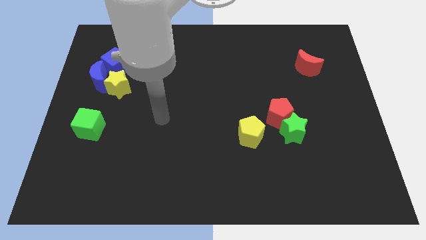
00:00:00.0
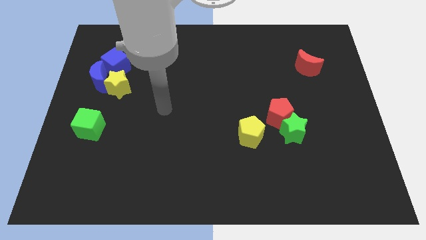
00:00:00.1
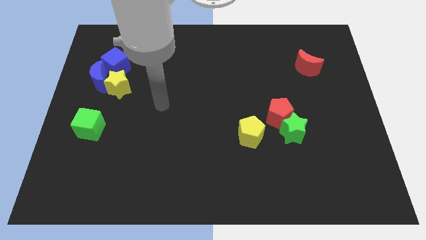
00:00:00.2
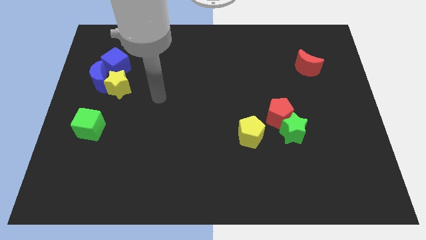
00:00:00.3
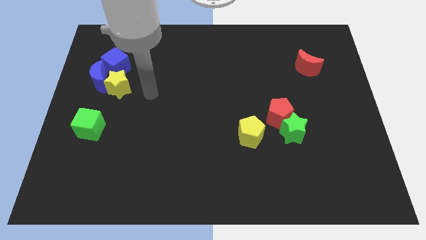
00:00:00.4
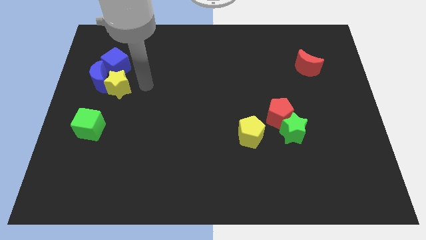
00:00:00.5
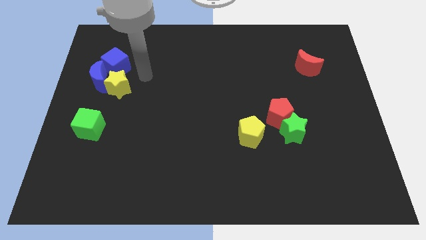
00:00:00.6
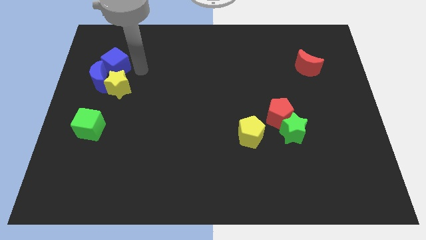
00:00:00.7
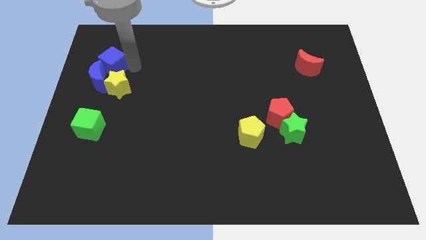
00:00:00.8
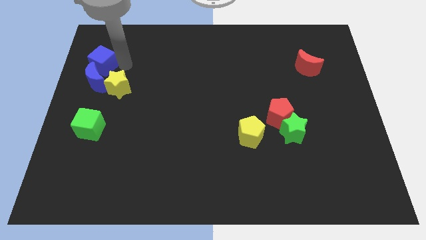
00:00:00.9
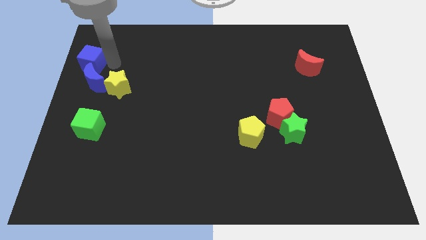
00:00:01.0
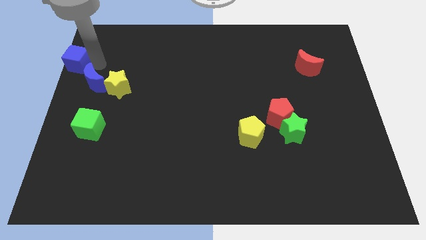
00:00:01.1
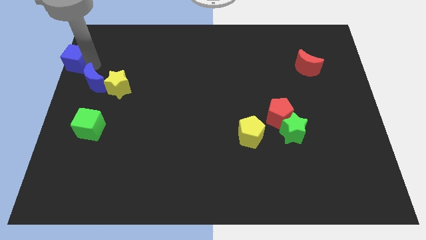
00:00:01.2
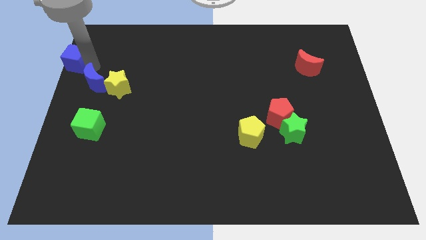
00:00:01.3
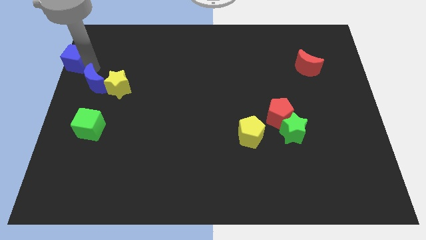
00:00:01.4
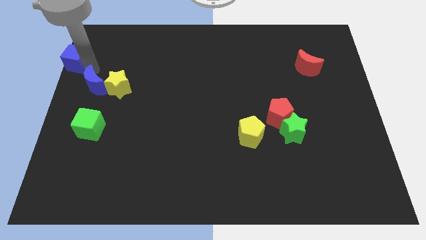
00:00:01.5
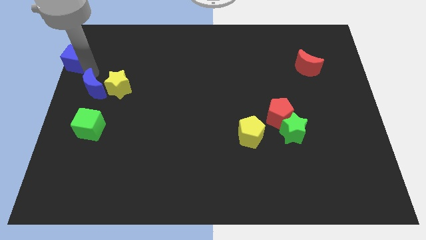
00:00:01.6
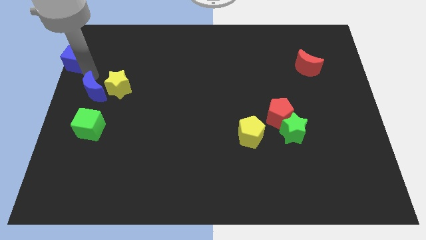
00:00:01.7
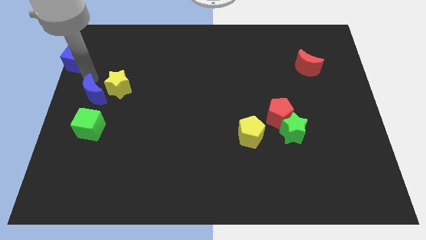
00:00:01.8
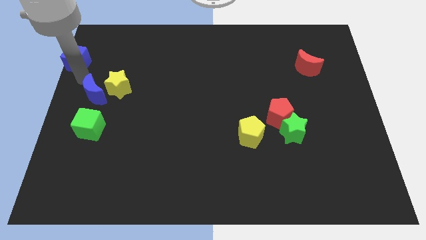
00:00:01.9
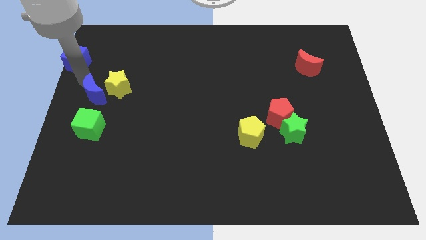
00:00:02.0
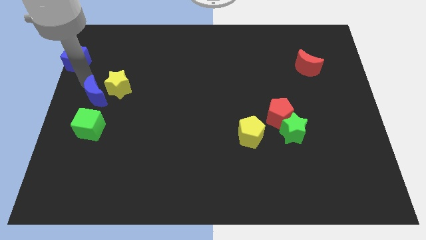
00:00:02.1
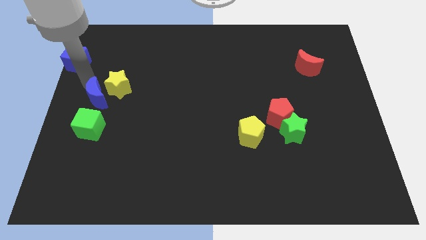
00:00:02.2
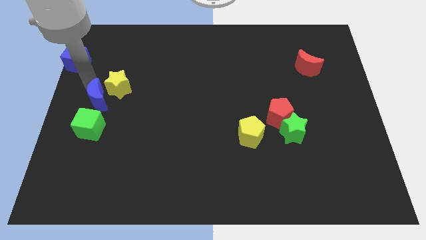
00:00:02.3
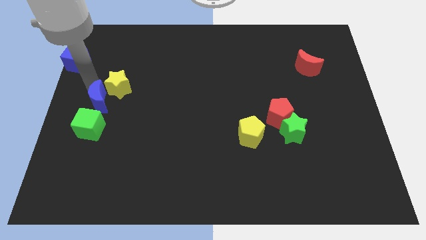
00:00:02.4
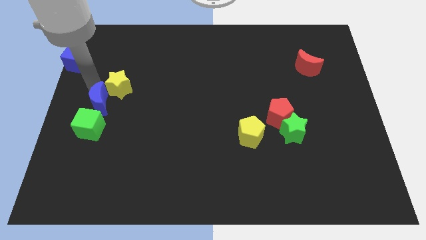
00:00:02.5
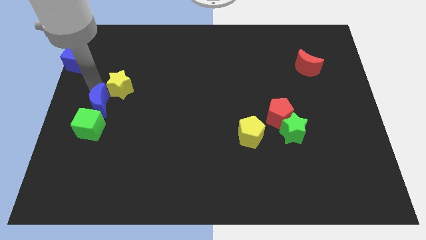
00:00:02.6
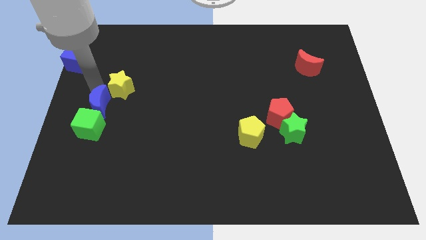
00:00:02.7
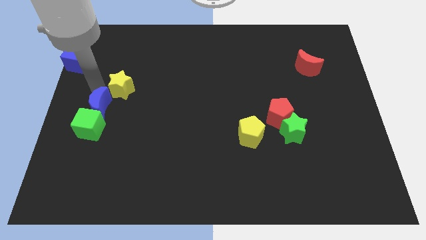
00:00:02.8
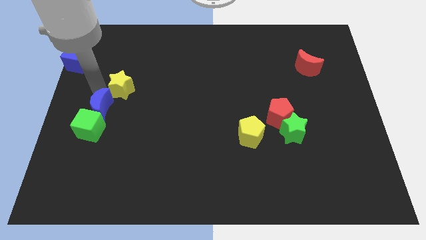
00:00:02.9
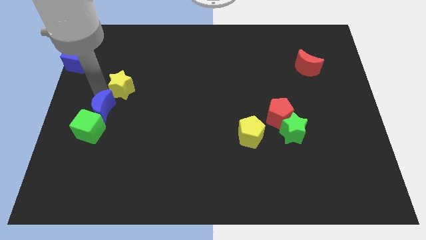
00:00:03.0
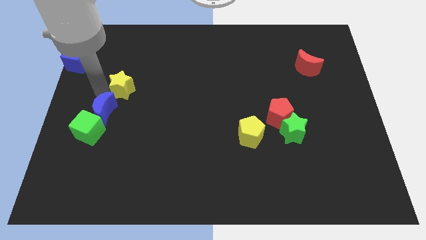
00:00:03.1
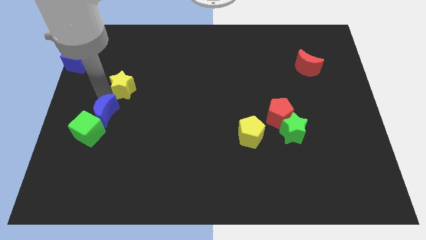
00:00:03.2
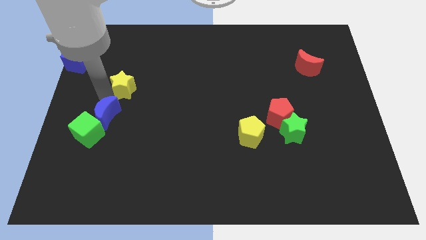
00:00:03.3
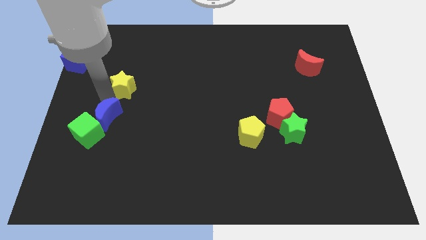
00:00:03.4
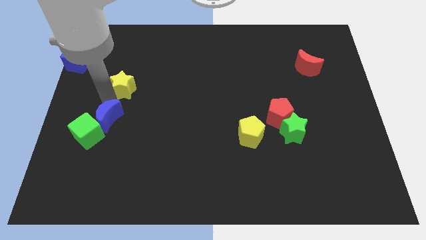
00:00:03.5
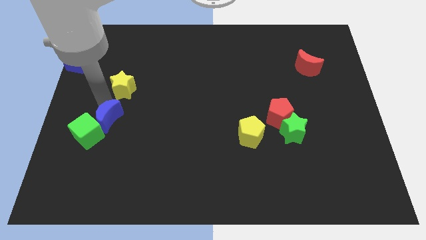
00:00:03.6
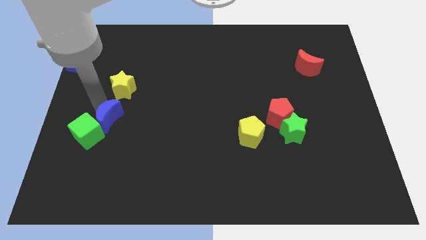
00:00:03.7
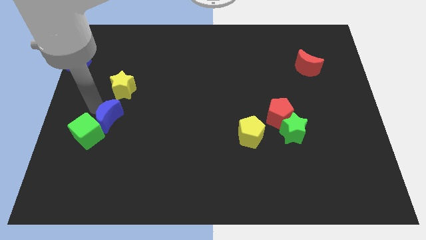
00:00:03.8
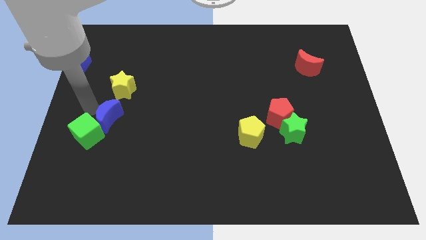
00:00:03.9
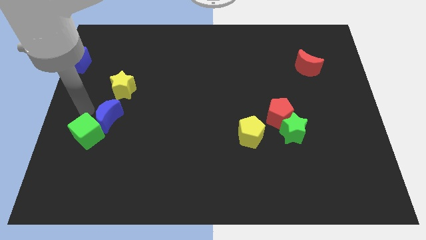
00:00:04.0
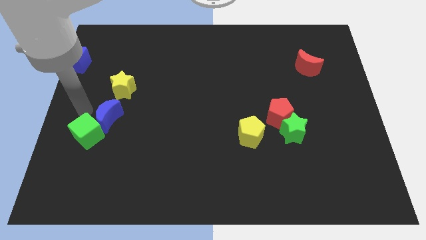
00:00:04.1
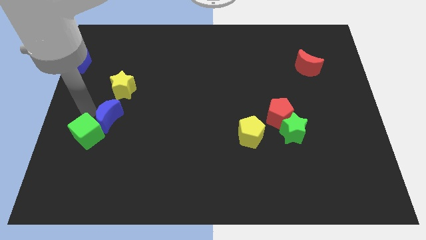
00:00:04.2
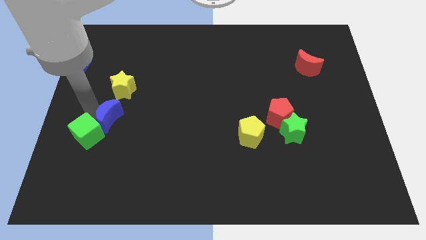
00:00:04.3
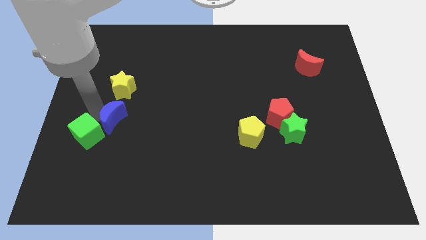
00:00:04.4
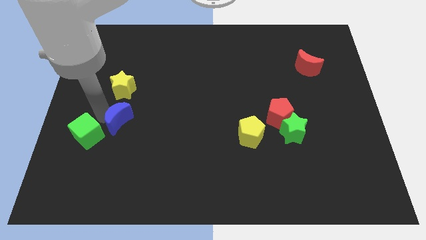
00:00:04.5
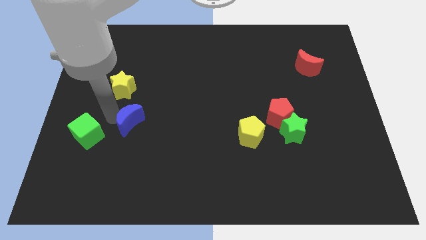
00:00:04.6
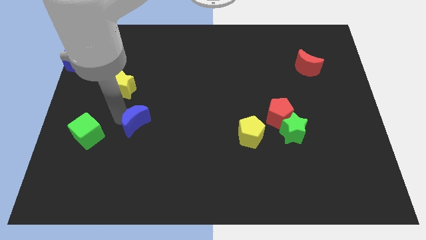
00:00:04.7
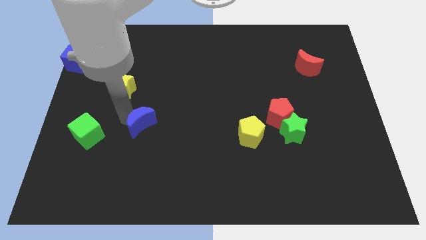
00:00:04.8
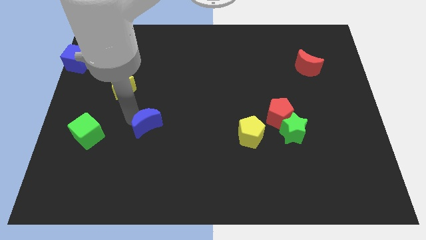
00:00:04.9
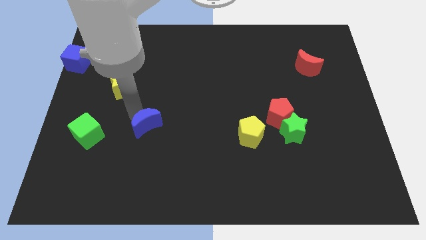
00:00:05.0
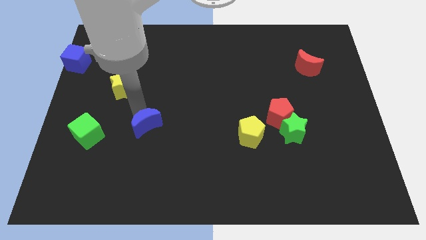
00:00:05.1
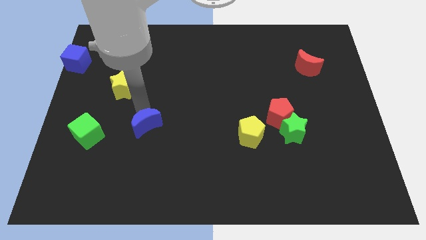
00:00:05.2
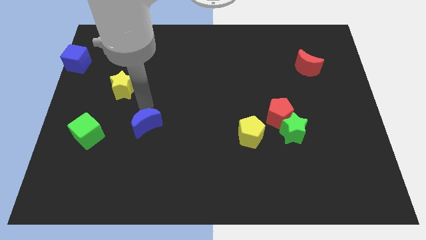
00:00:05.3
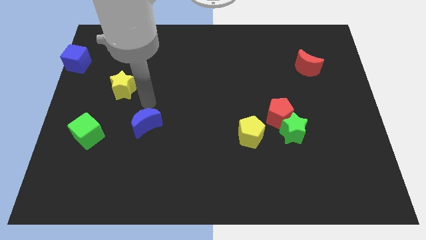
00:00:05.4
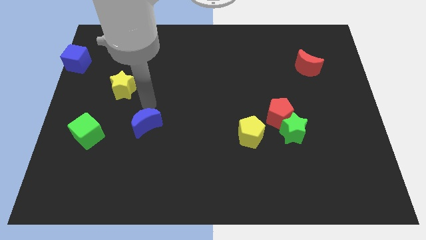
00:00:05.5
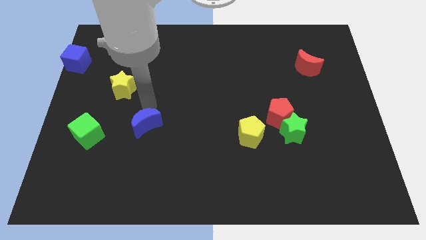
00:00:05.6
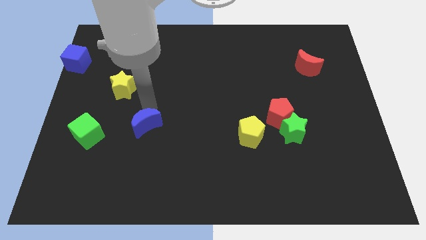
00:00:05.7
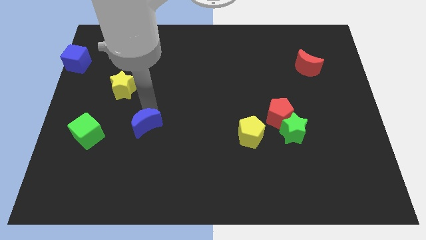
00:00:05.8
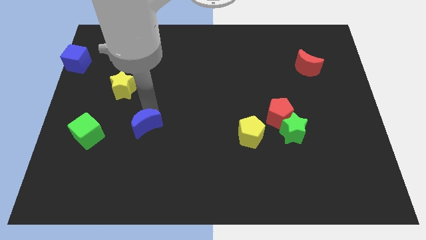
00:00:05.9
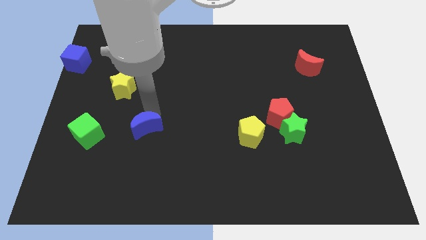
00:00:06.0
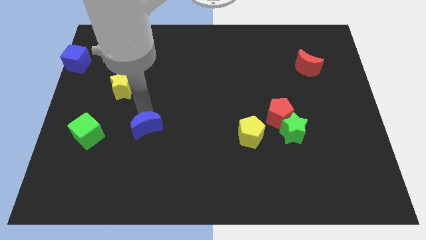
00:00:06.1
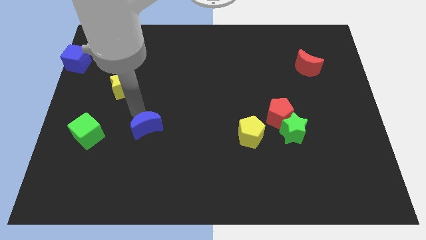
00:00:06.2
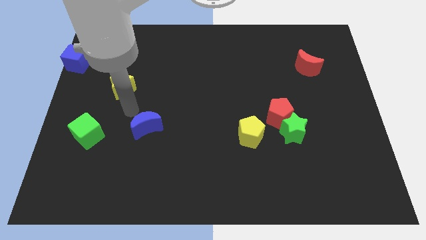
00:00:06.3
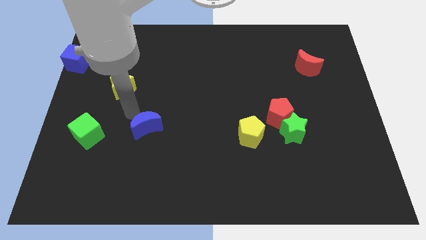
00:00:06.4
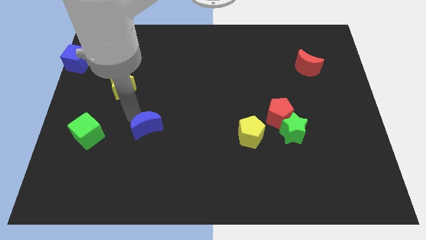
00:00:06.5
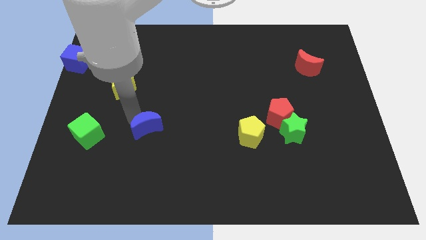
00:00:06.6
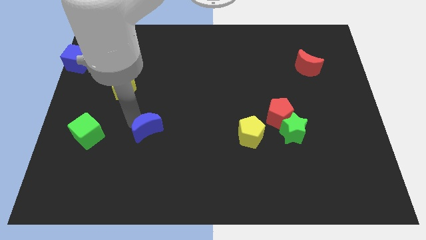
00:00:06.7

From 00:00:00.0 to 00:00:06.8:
slide the blue moon down and right

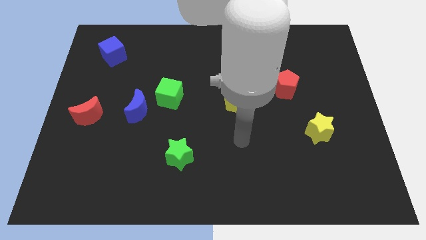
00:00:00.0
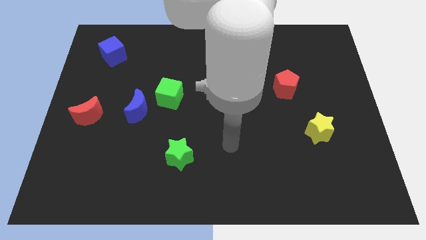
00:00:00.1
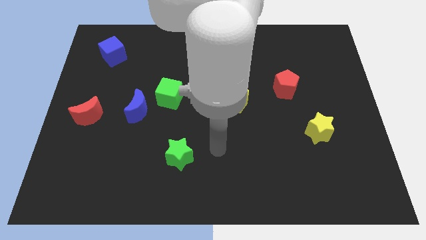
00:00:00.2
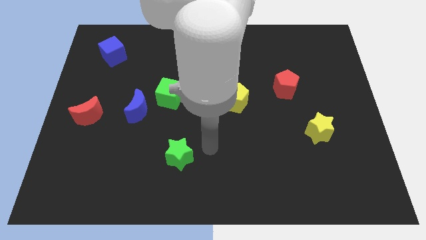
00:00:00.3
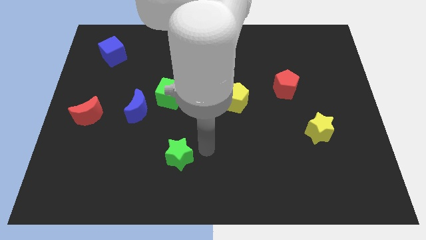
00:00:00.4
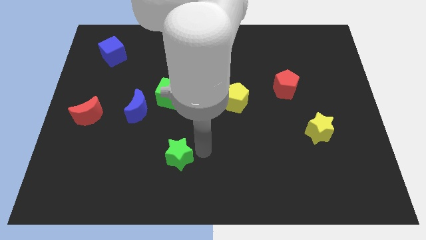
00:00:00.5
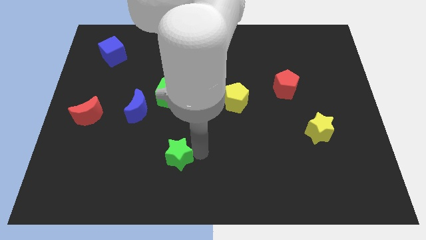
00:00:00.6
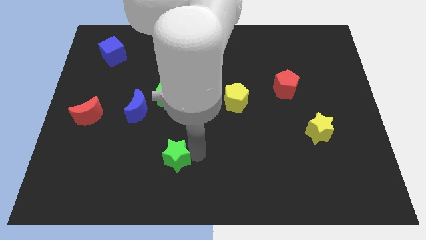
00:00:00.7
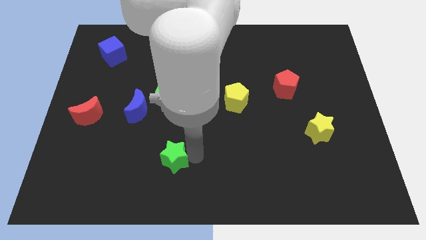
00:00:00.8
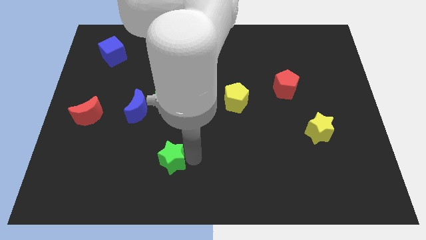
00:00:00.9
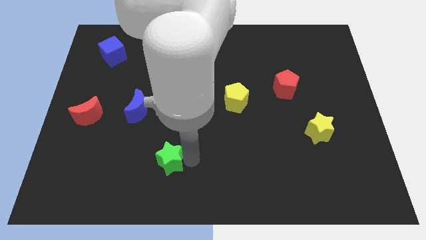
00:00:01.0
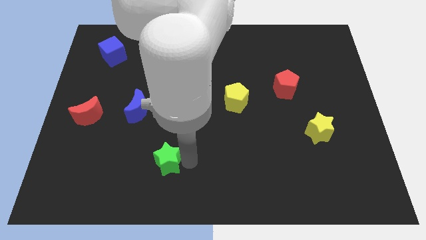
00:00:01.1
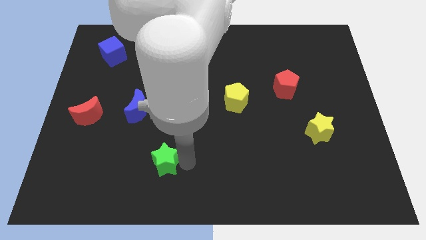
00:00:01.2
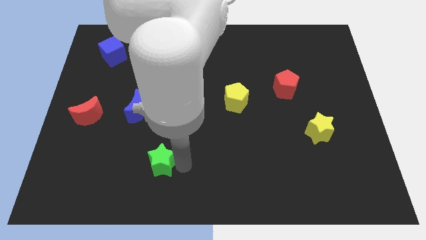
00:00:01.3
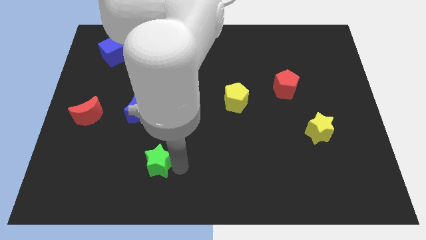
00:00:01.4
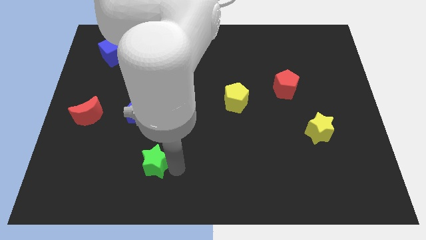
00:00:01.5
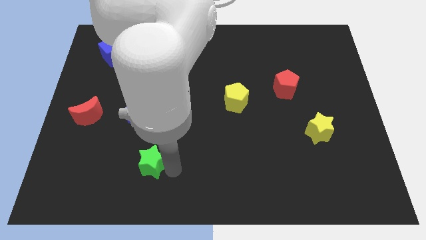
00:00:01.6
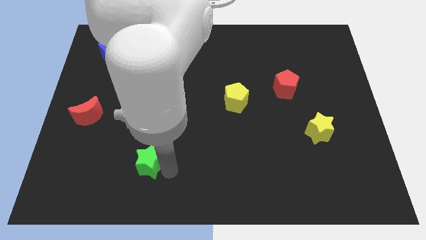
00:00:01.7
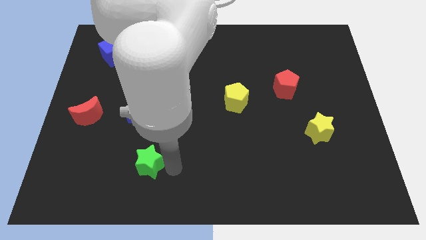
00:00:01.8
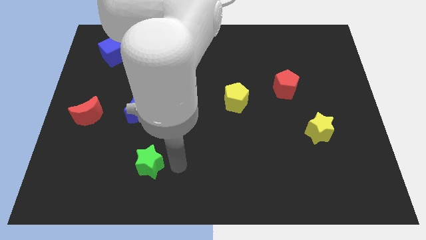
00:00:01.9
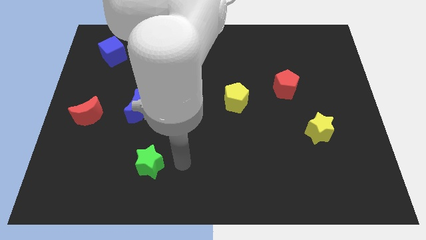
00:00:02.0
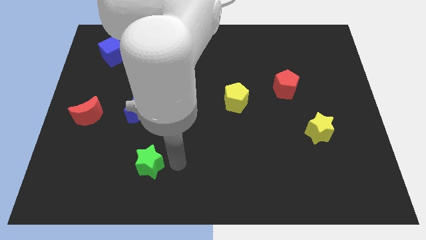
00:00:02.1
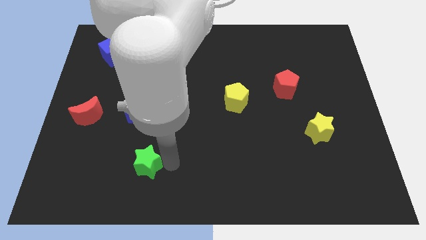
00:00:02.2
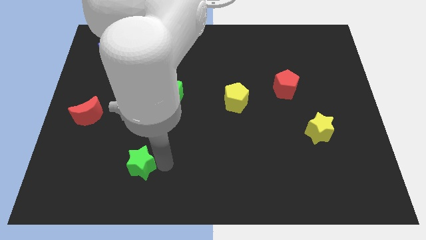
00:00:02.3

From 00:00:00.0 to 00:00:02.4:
move the green star to the left slightly
